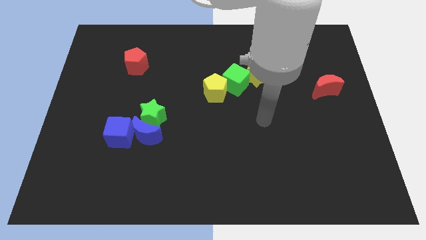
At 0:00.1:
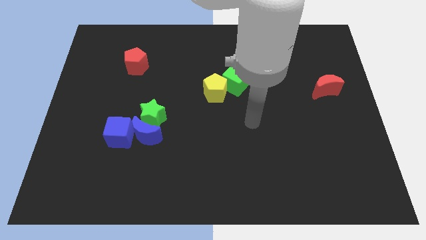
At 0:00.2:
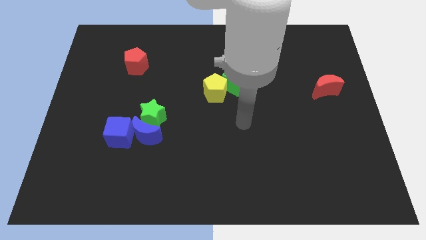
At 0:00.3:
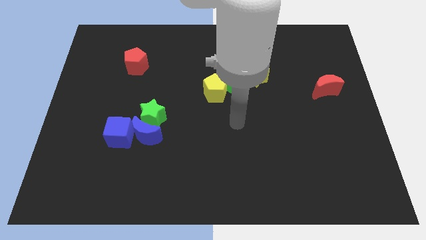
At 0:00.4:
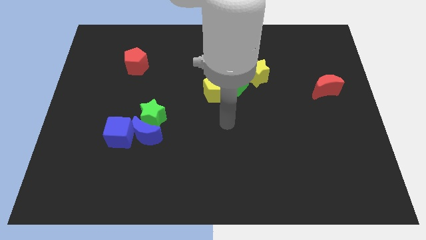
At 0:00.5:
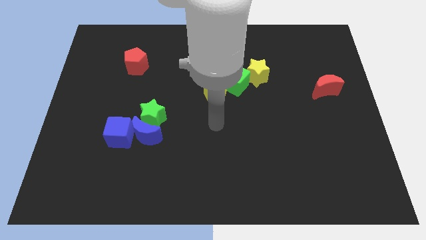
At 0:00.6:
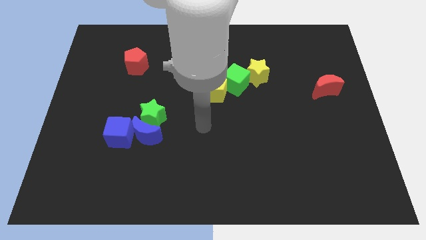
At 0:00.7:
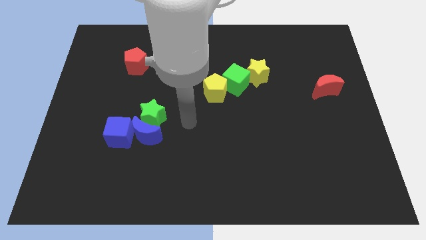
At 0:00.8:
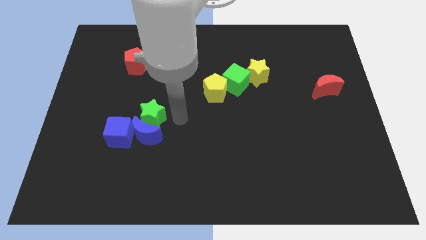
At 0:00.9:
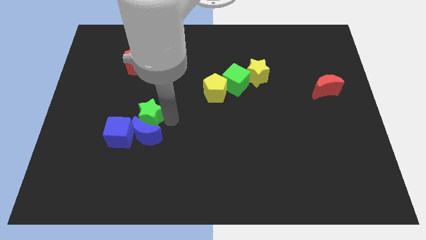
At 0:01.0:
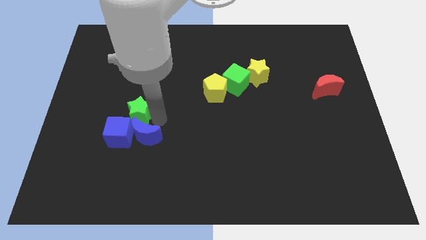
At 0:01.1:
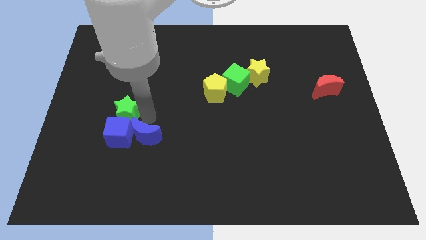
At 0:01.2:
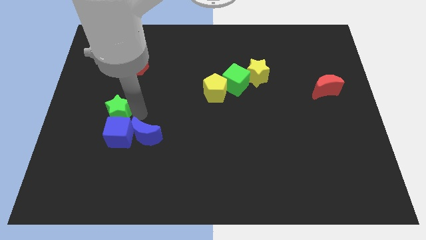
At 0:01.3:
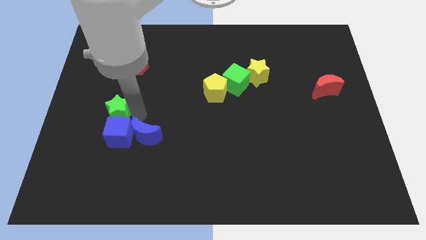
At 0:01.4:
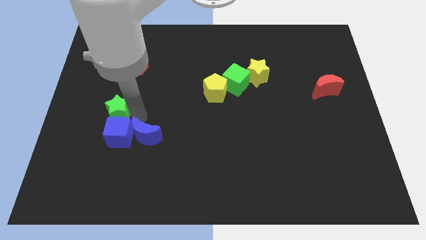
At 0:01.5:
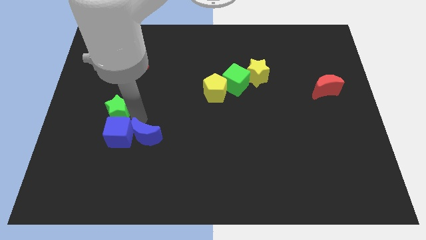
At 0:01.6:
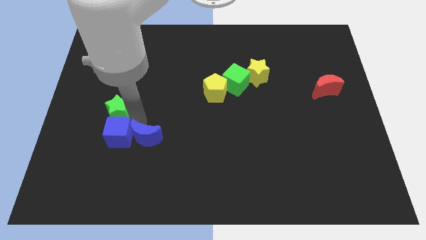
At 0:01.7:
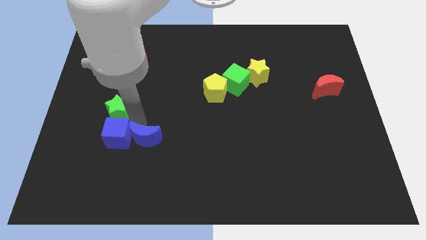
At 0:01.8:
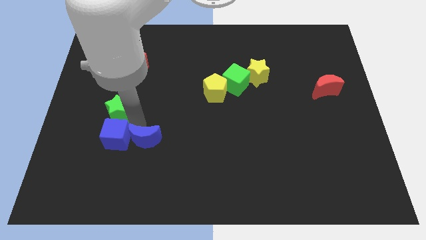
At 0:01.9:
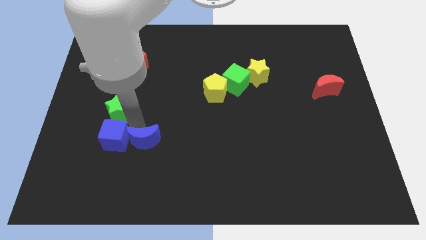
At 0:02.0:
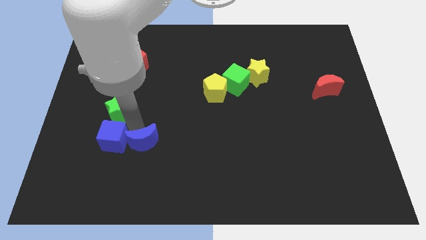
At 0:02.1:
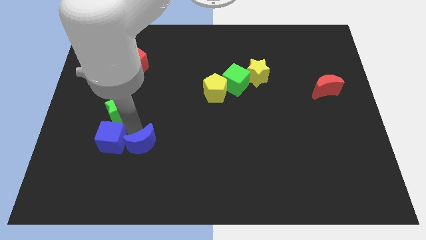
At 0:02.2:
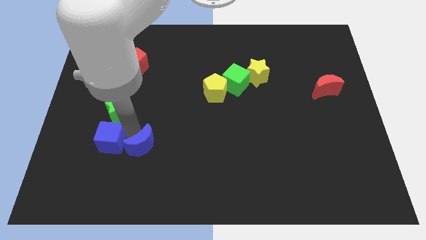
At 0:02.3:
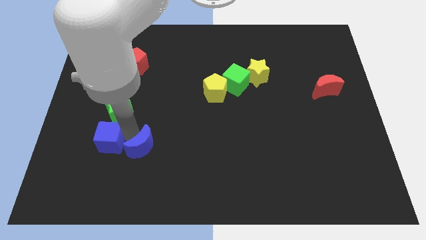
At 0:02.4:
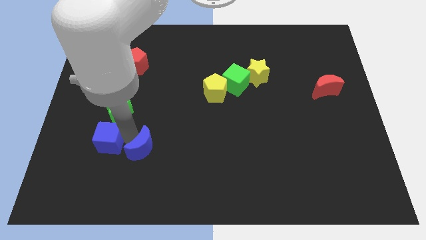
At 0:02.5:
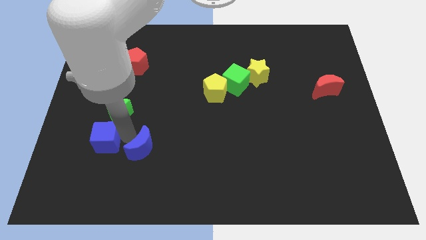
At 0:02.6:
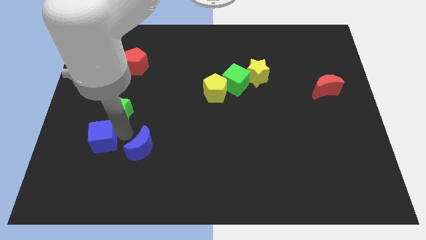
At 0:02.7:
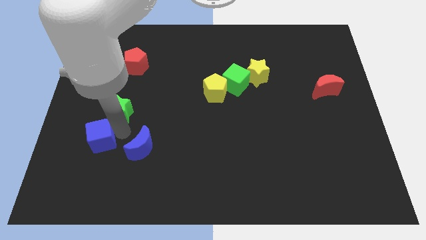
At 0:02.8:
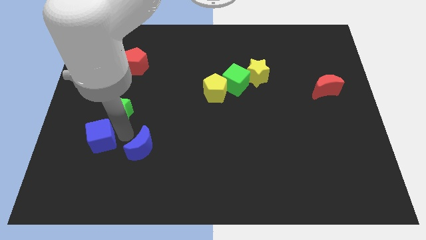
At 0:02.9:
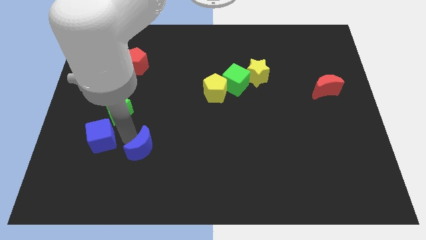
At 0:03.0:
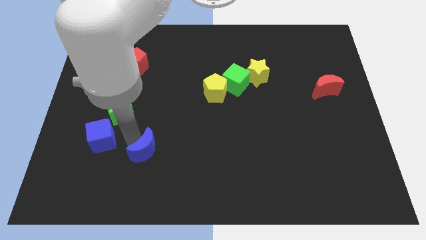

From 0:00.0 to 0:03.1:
separate the blue moon from the green star and blue cube

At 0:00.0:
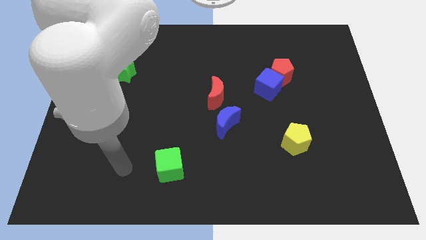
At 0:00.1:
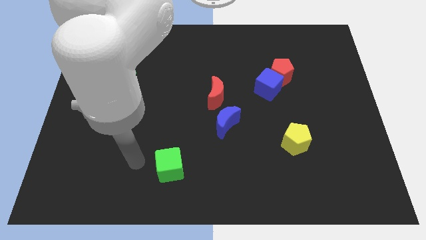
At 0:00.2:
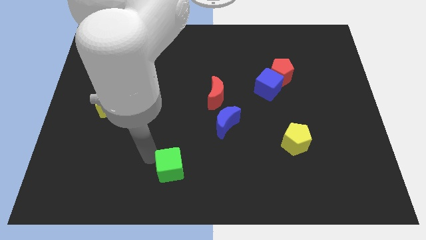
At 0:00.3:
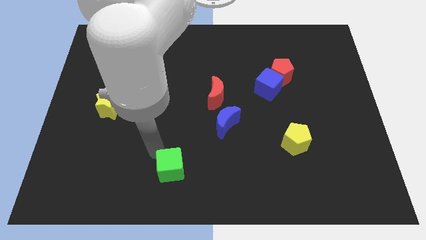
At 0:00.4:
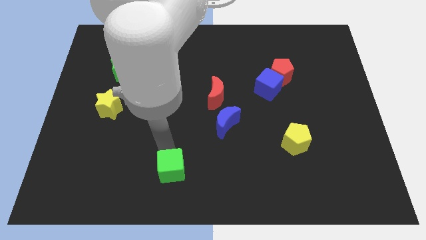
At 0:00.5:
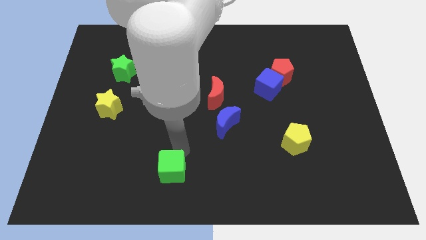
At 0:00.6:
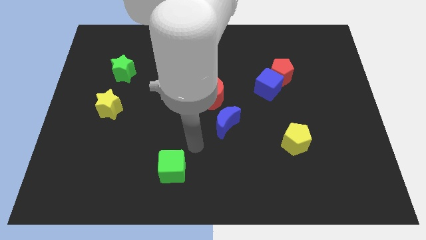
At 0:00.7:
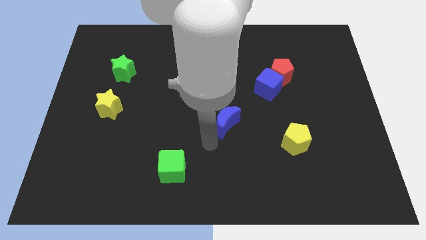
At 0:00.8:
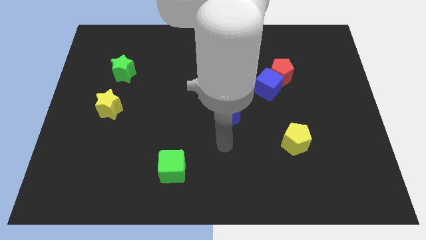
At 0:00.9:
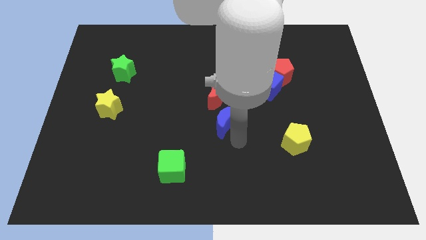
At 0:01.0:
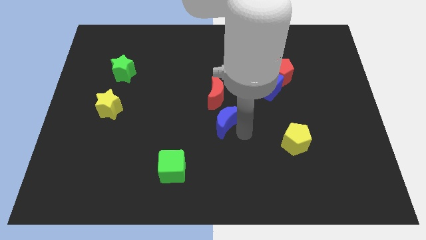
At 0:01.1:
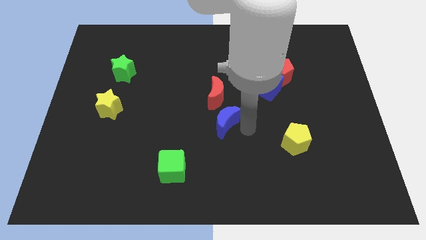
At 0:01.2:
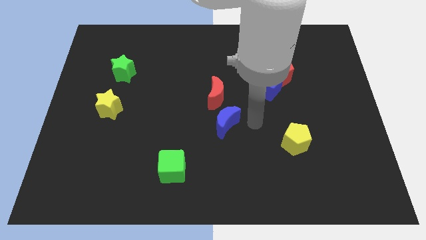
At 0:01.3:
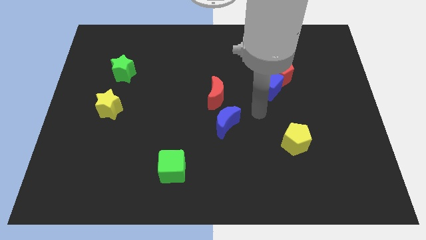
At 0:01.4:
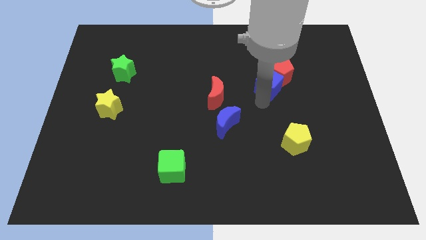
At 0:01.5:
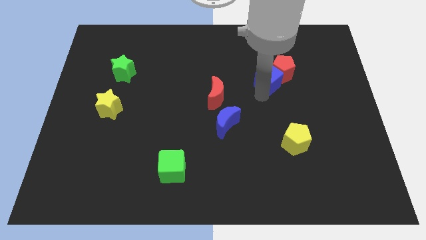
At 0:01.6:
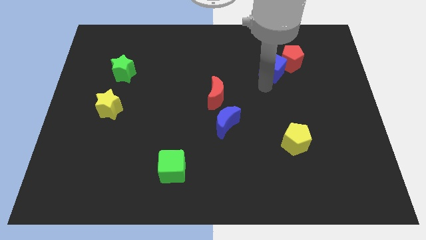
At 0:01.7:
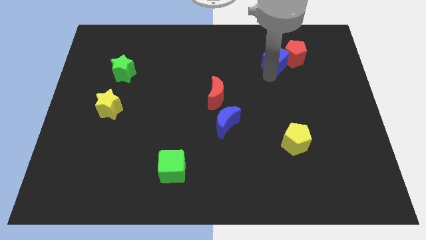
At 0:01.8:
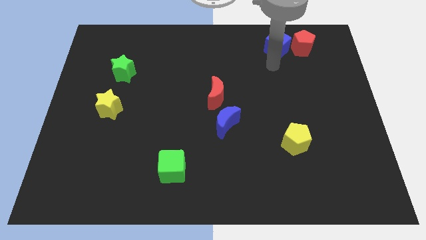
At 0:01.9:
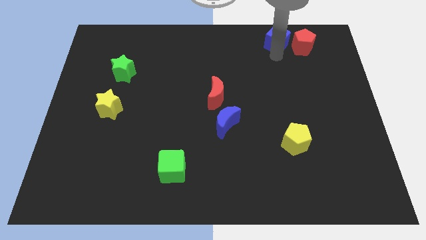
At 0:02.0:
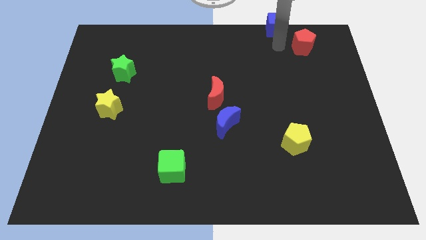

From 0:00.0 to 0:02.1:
move the red pentagon away from the blue cube

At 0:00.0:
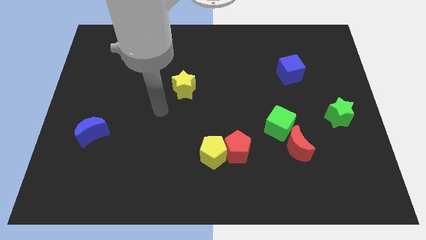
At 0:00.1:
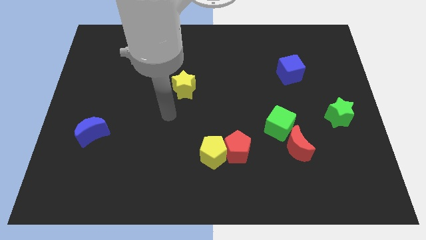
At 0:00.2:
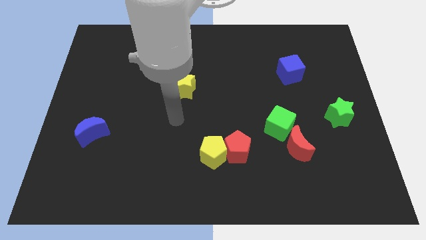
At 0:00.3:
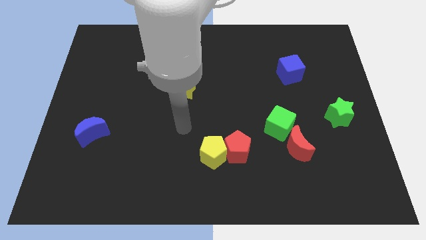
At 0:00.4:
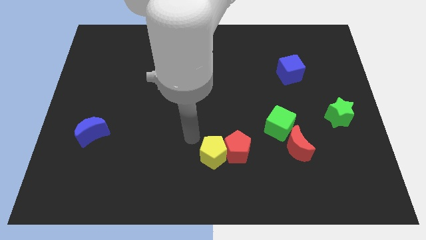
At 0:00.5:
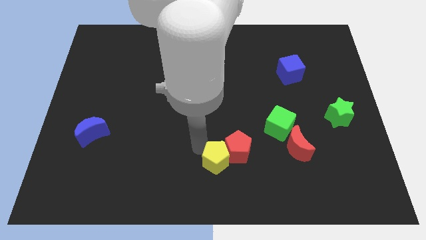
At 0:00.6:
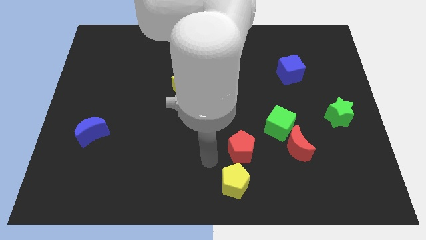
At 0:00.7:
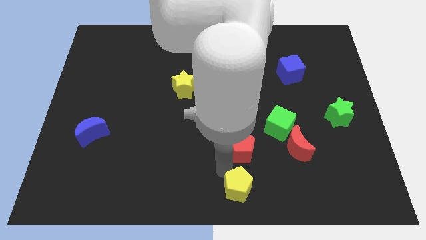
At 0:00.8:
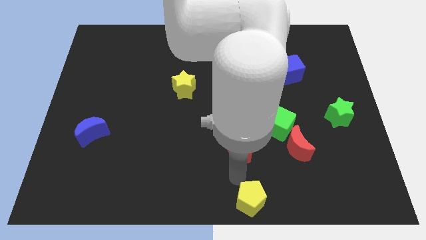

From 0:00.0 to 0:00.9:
move the red pentagon away from the yellow pentagon

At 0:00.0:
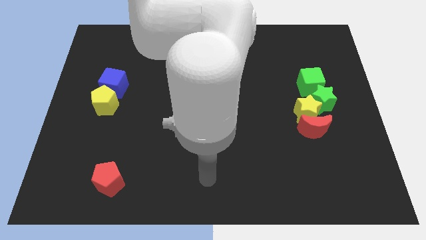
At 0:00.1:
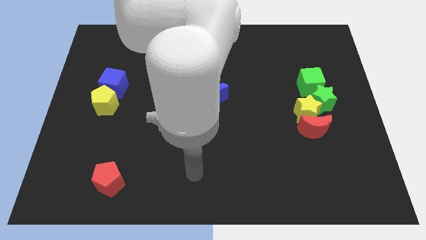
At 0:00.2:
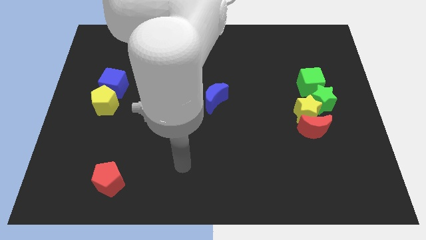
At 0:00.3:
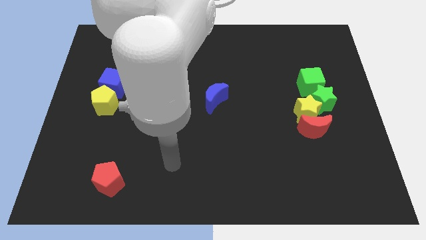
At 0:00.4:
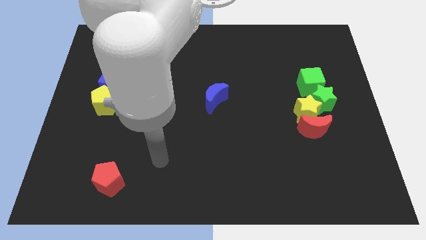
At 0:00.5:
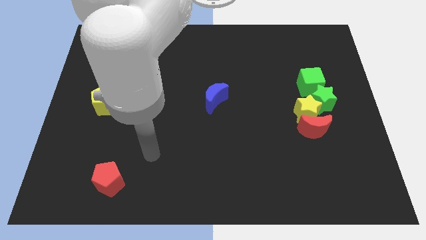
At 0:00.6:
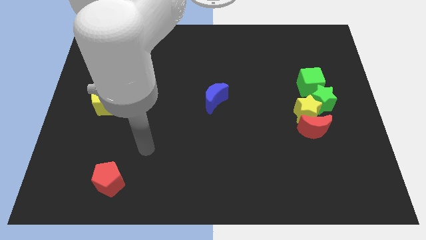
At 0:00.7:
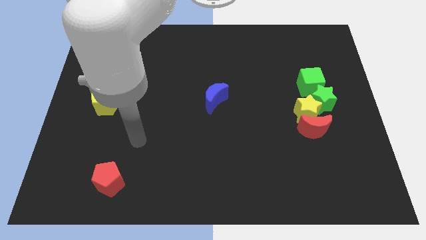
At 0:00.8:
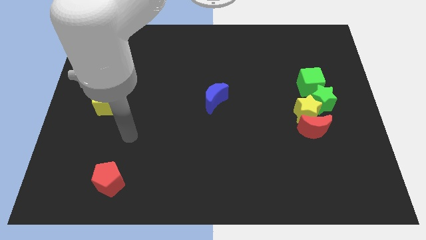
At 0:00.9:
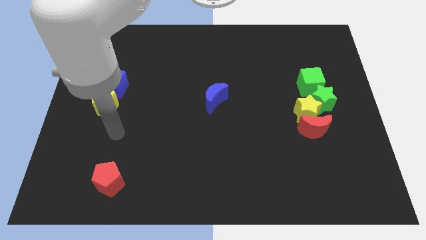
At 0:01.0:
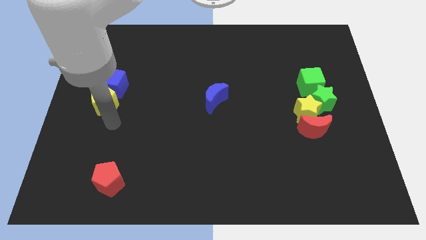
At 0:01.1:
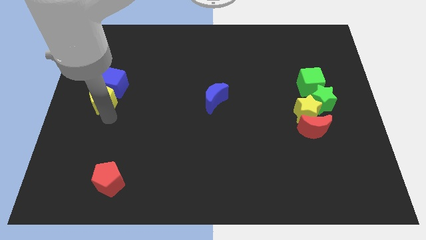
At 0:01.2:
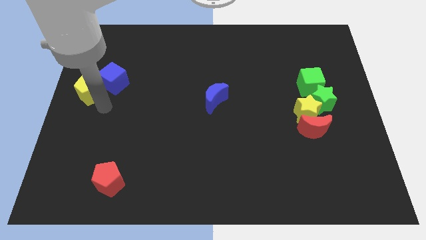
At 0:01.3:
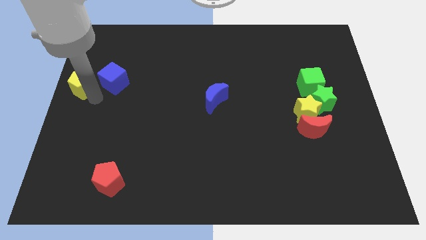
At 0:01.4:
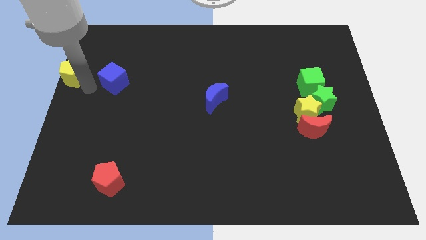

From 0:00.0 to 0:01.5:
pull the blue cube apart from the yellow pentagon

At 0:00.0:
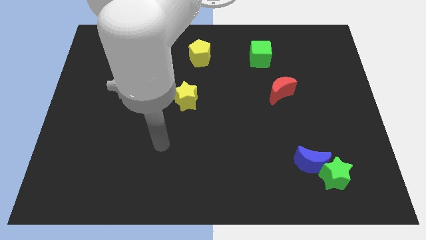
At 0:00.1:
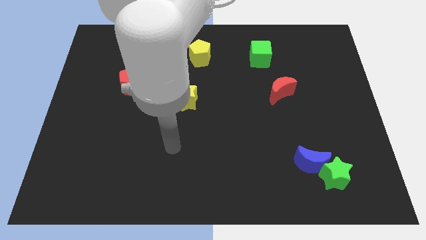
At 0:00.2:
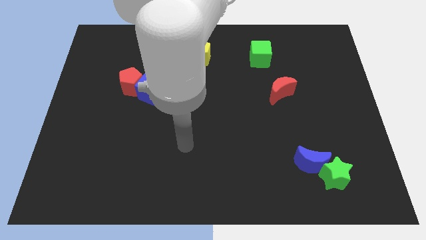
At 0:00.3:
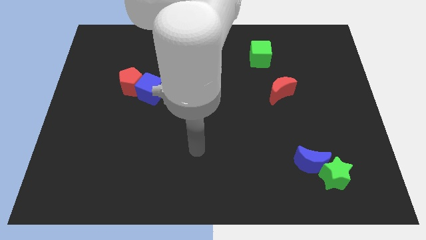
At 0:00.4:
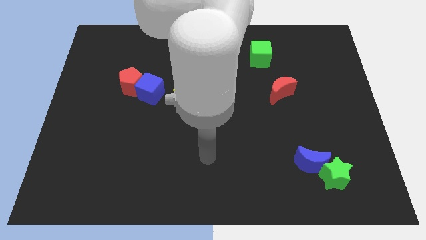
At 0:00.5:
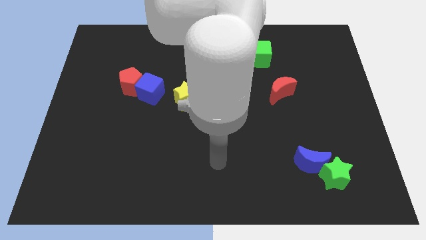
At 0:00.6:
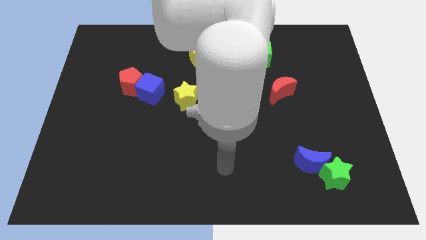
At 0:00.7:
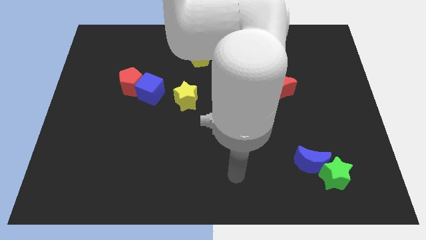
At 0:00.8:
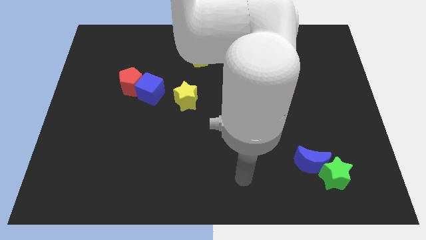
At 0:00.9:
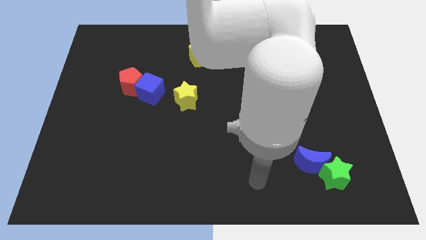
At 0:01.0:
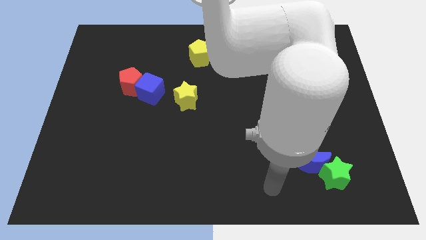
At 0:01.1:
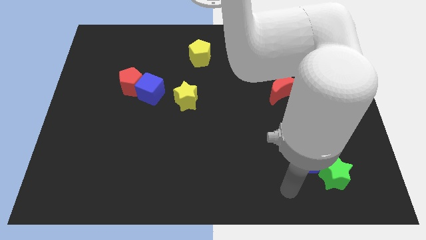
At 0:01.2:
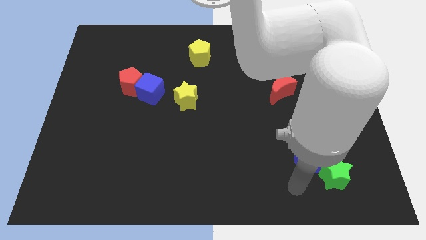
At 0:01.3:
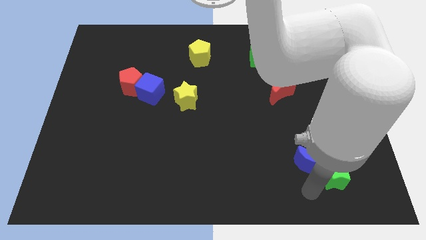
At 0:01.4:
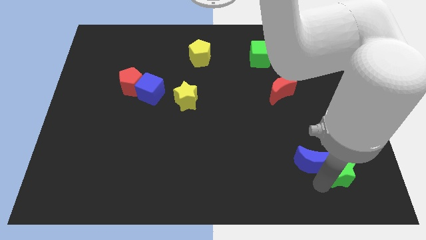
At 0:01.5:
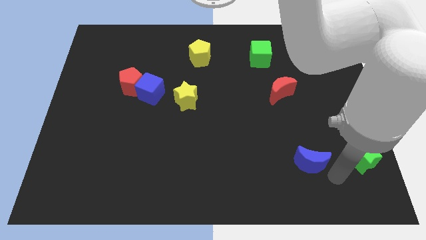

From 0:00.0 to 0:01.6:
move the blue moon away from the green star
